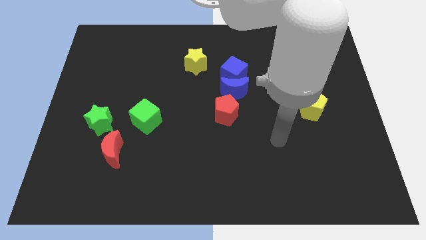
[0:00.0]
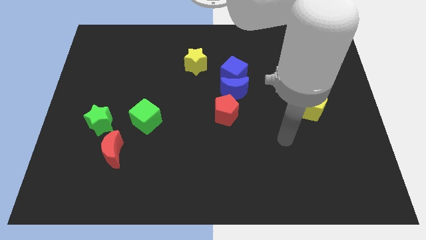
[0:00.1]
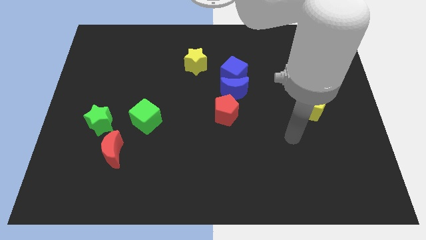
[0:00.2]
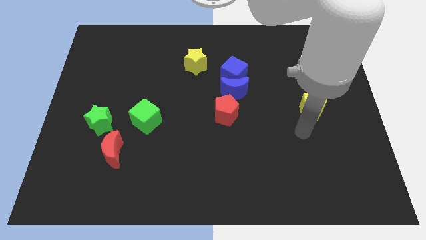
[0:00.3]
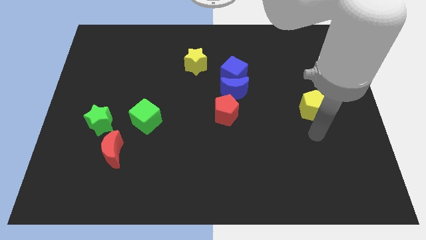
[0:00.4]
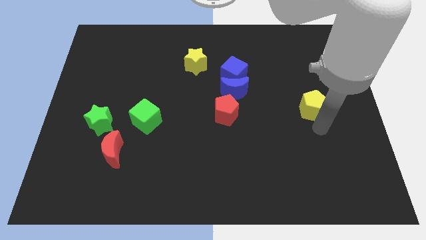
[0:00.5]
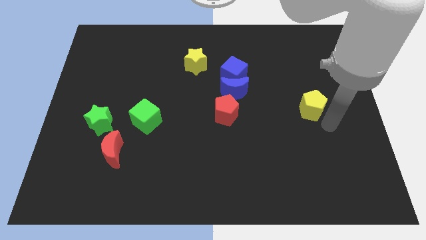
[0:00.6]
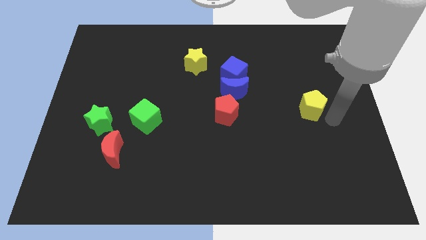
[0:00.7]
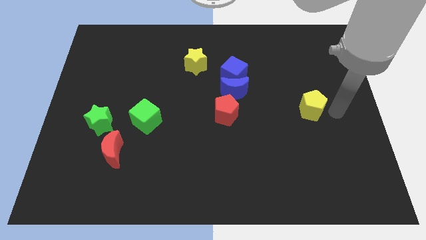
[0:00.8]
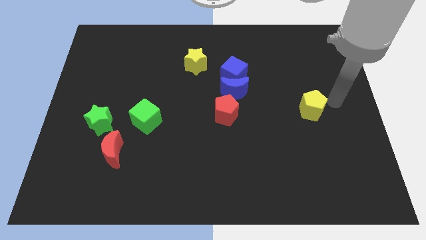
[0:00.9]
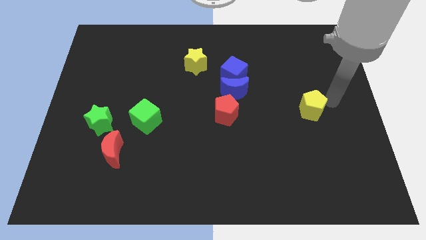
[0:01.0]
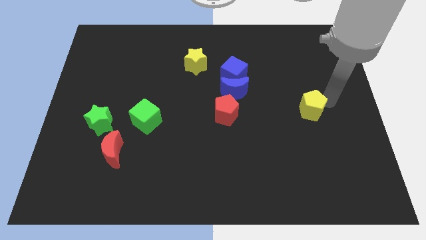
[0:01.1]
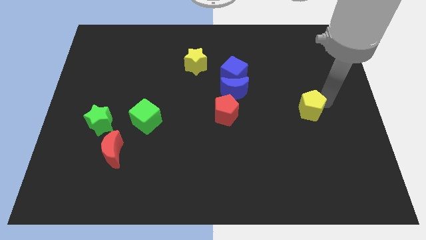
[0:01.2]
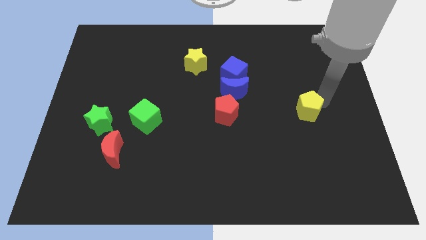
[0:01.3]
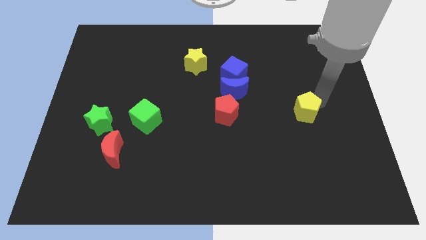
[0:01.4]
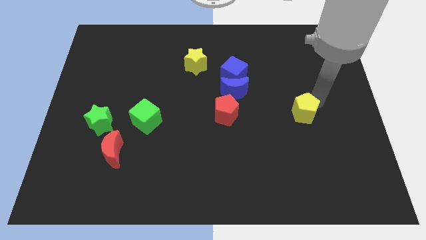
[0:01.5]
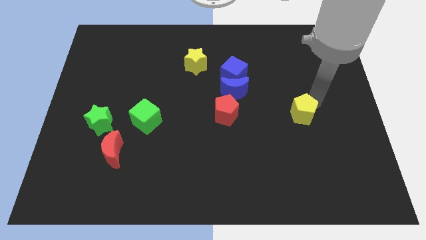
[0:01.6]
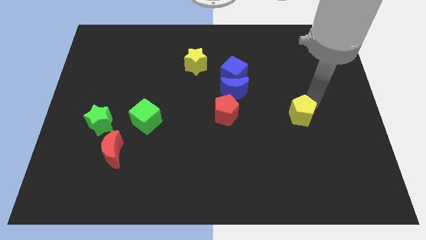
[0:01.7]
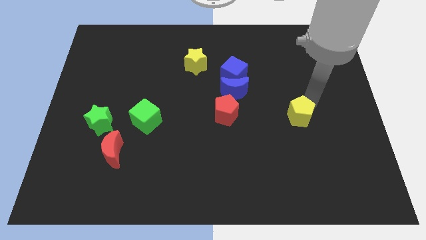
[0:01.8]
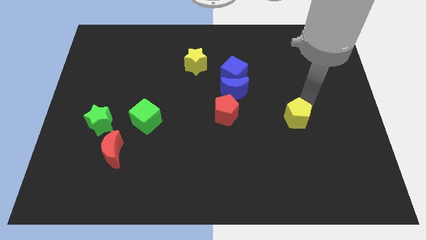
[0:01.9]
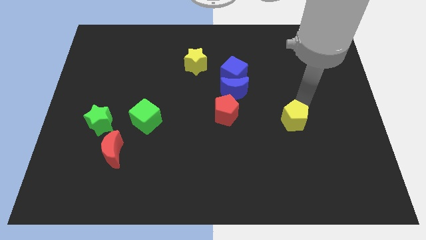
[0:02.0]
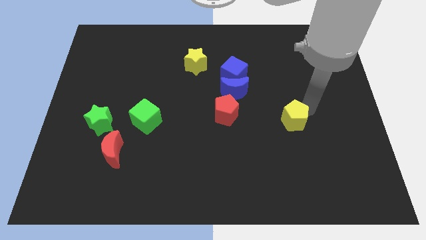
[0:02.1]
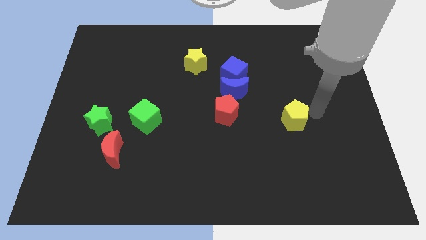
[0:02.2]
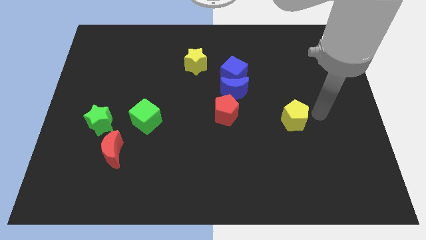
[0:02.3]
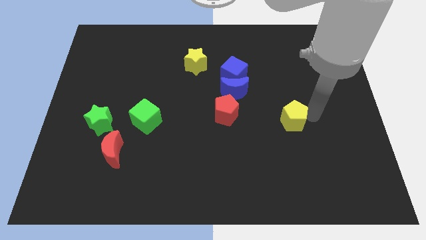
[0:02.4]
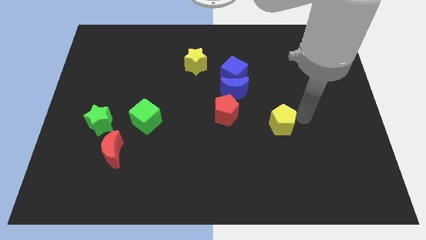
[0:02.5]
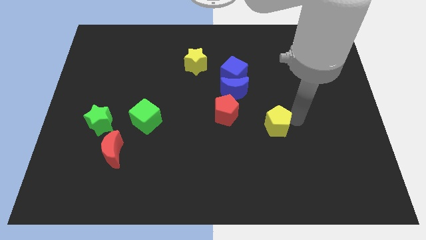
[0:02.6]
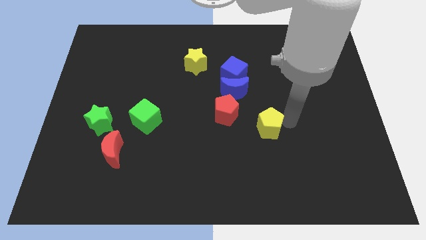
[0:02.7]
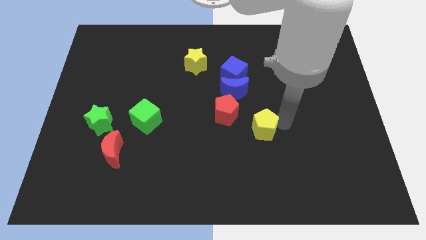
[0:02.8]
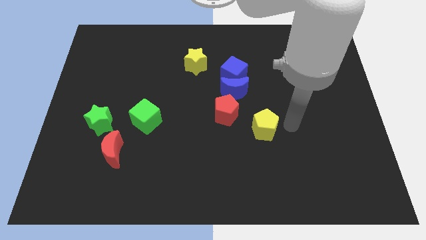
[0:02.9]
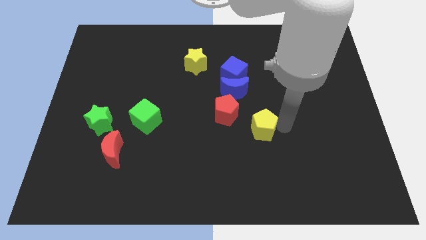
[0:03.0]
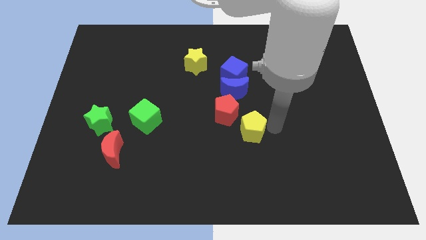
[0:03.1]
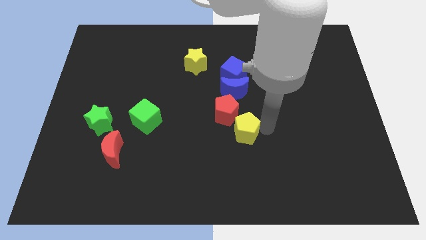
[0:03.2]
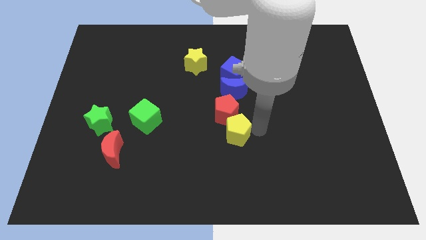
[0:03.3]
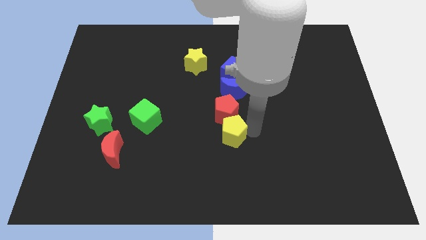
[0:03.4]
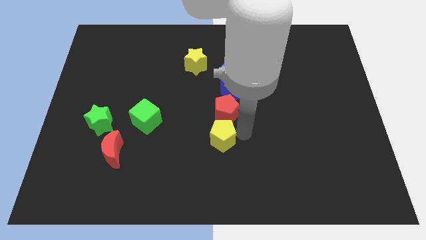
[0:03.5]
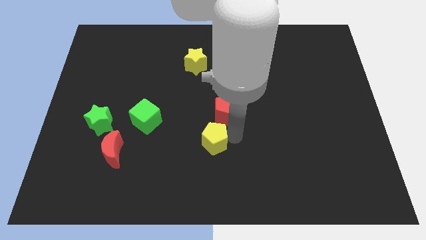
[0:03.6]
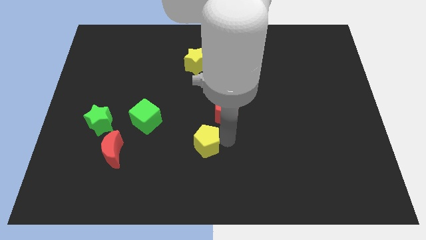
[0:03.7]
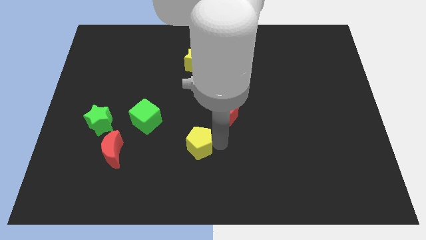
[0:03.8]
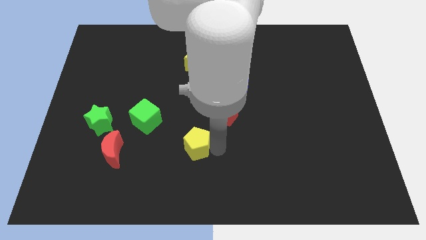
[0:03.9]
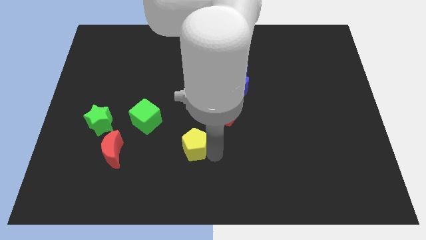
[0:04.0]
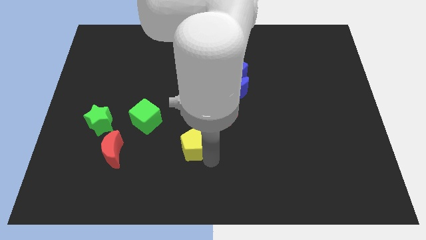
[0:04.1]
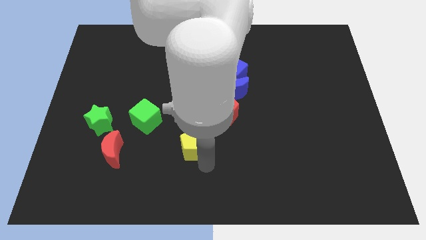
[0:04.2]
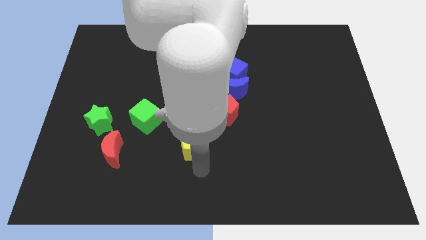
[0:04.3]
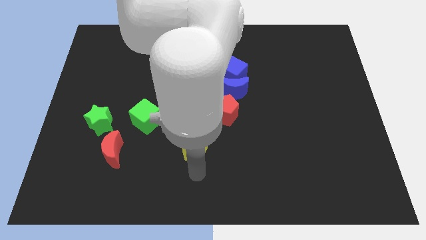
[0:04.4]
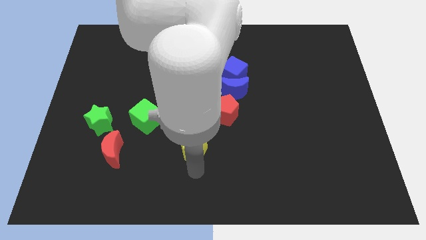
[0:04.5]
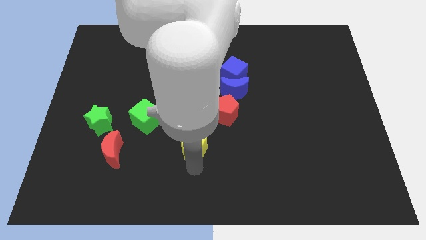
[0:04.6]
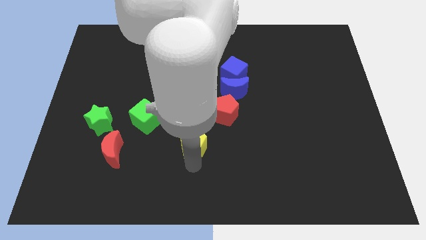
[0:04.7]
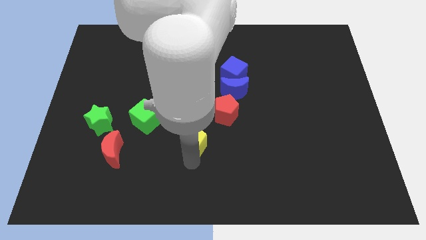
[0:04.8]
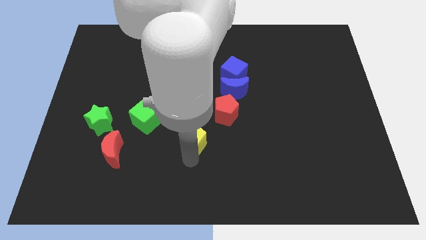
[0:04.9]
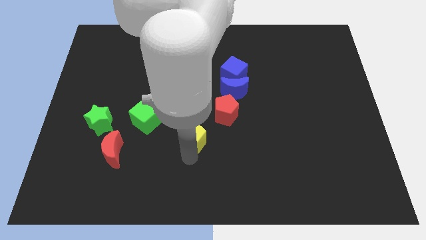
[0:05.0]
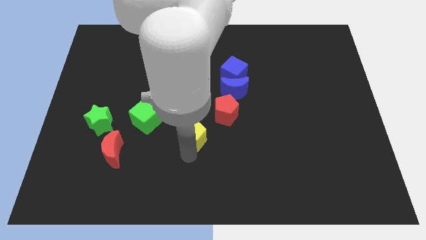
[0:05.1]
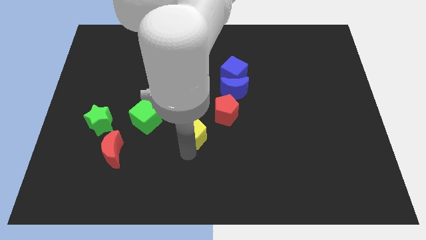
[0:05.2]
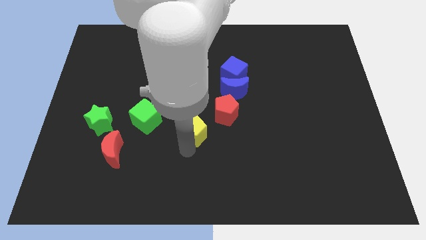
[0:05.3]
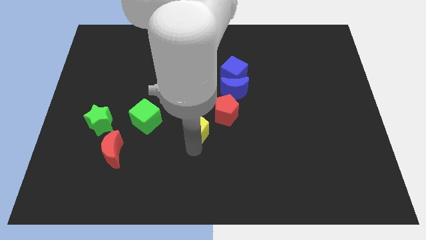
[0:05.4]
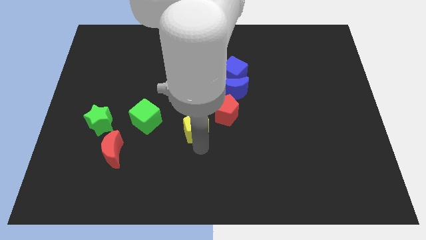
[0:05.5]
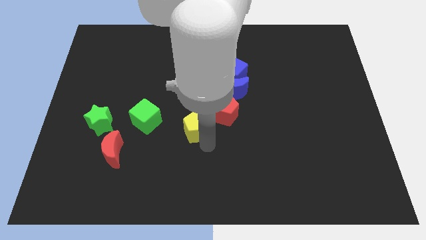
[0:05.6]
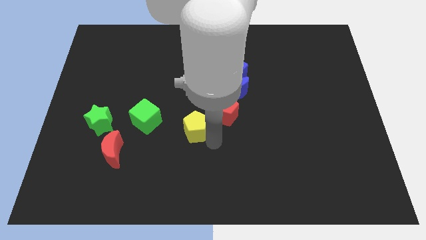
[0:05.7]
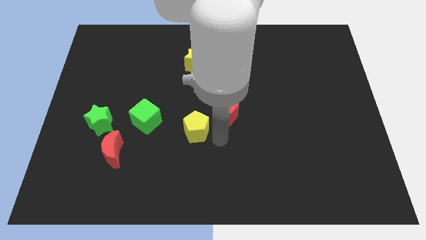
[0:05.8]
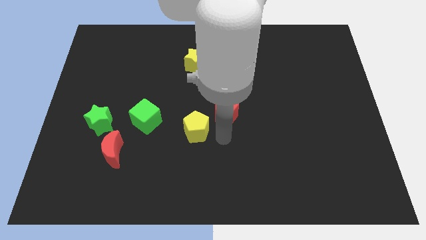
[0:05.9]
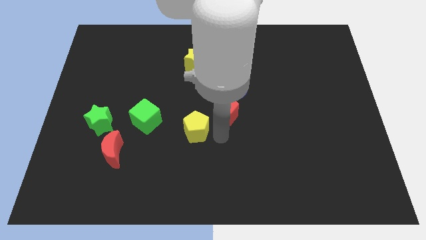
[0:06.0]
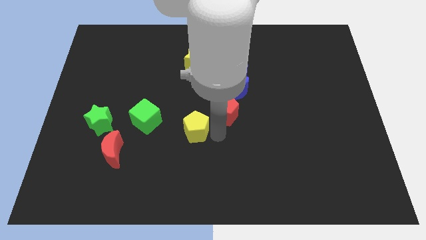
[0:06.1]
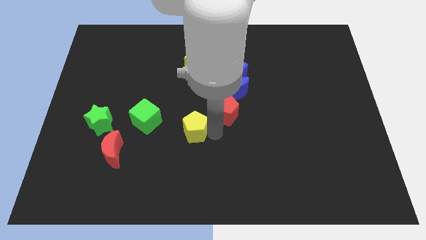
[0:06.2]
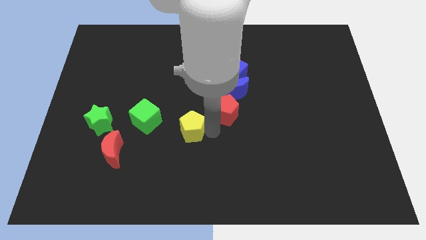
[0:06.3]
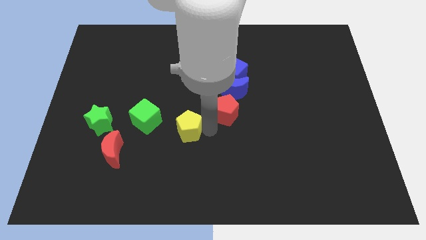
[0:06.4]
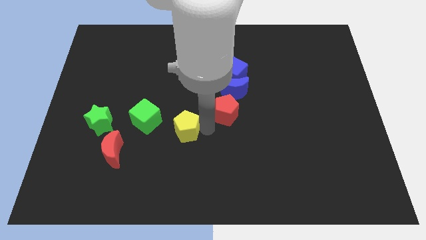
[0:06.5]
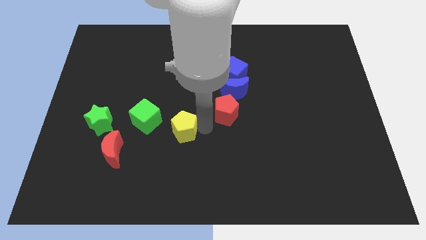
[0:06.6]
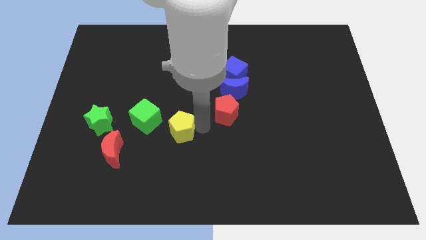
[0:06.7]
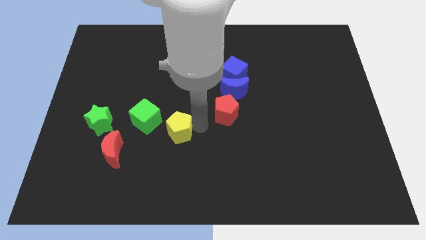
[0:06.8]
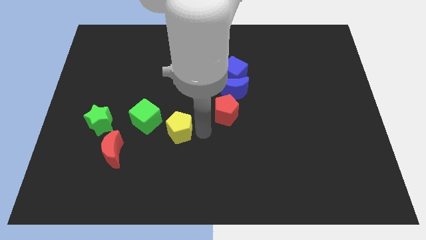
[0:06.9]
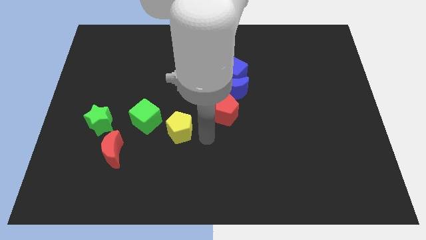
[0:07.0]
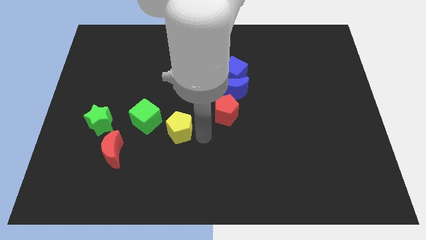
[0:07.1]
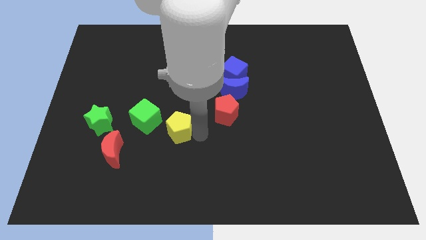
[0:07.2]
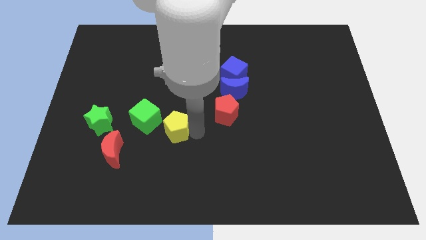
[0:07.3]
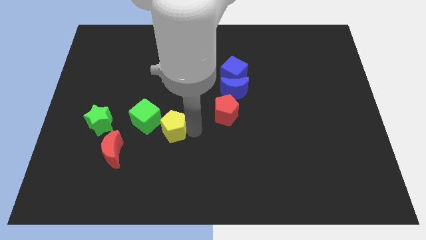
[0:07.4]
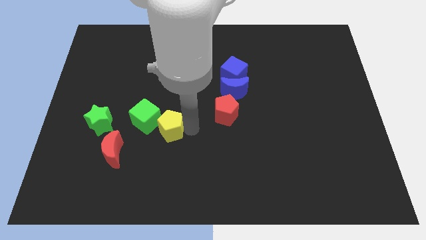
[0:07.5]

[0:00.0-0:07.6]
push the yellow pentagon to the green cube
